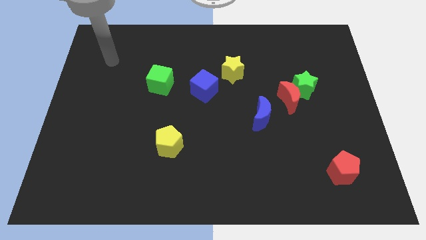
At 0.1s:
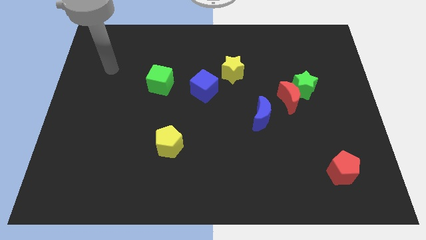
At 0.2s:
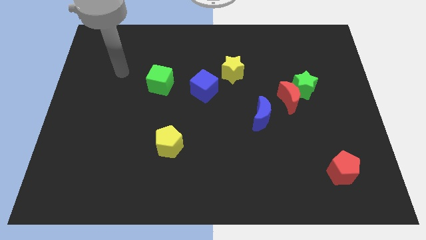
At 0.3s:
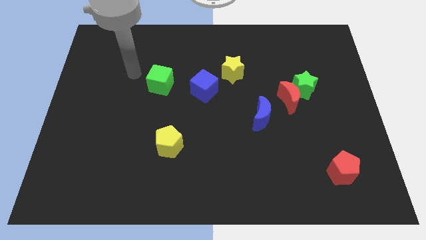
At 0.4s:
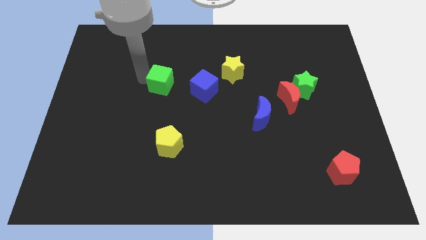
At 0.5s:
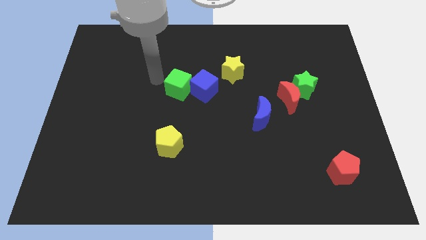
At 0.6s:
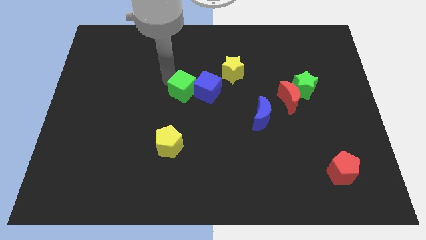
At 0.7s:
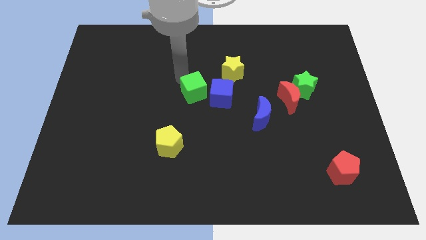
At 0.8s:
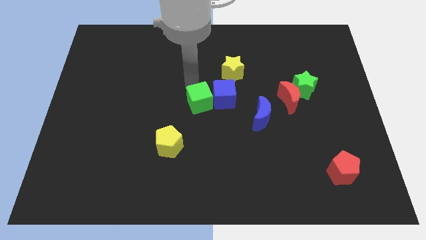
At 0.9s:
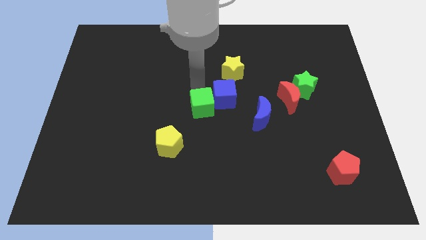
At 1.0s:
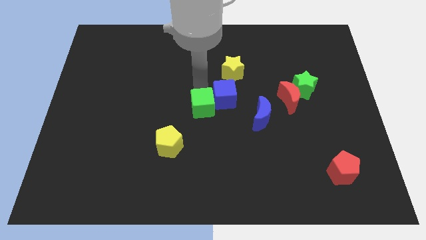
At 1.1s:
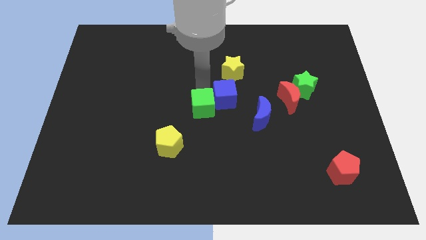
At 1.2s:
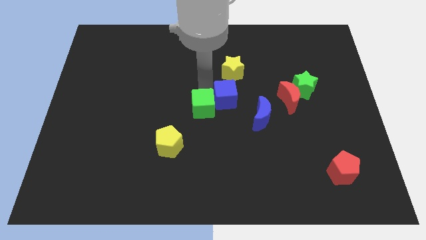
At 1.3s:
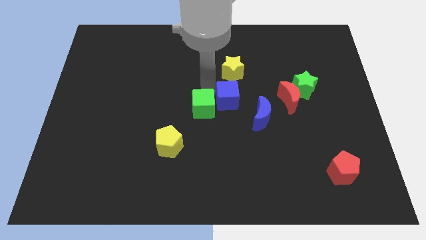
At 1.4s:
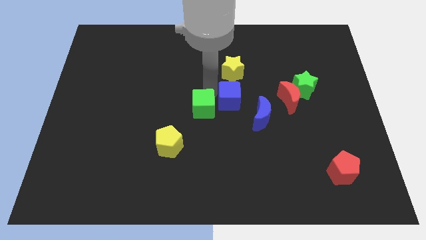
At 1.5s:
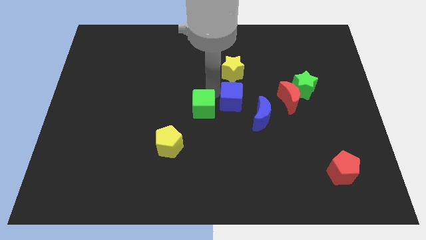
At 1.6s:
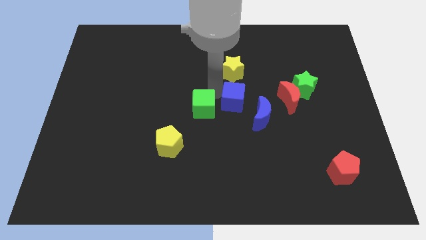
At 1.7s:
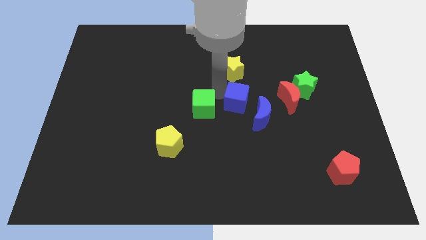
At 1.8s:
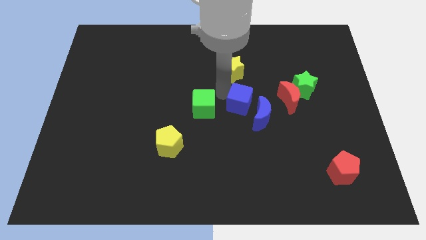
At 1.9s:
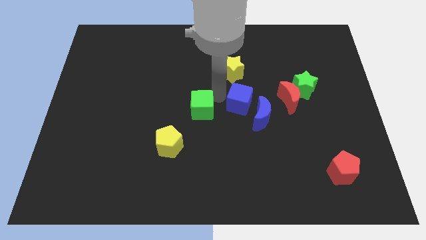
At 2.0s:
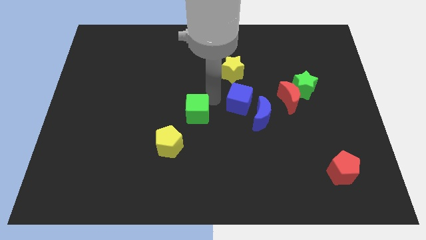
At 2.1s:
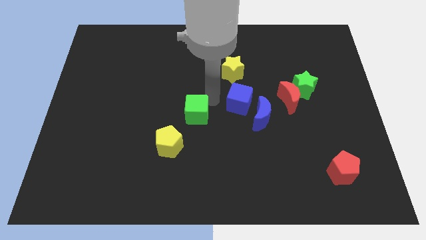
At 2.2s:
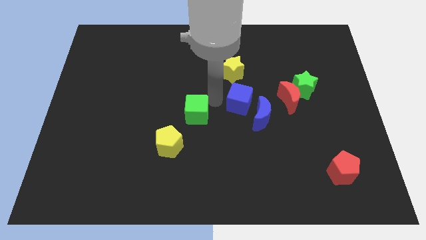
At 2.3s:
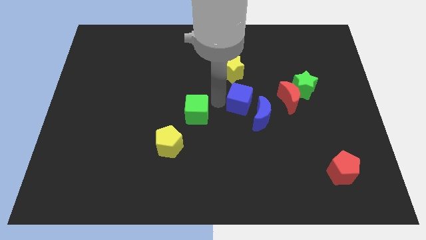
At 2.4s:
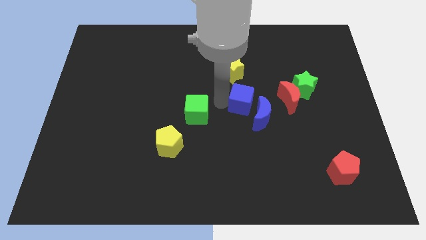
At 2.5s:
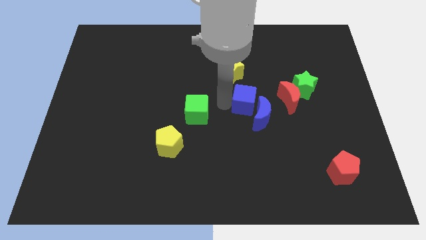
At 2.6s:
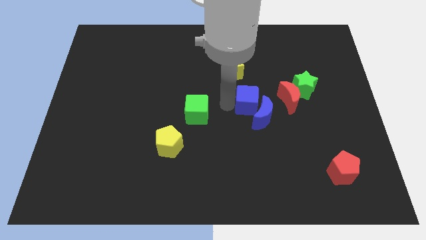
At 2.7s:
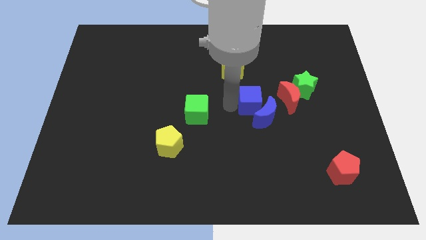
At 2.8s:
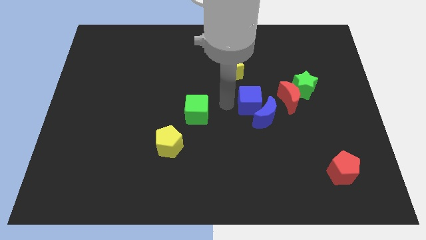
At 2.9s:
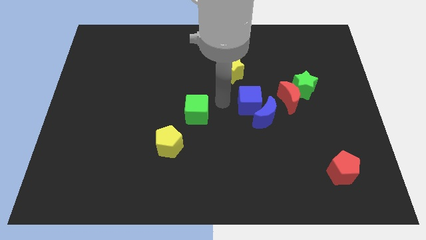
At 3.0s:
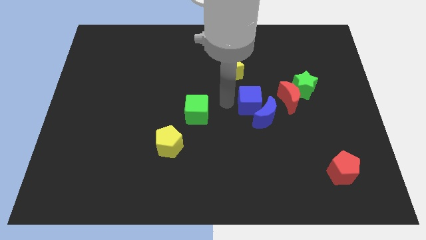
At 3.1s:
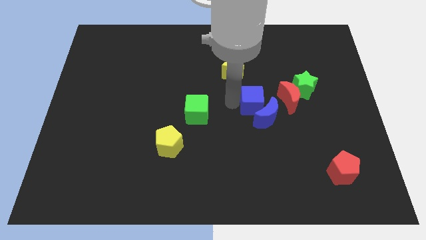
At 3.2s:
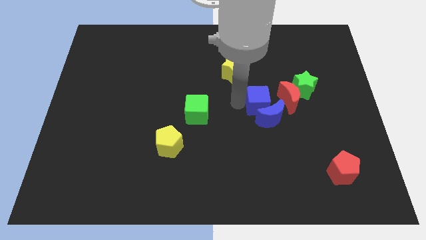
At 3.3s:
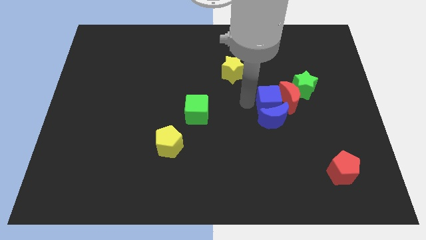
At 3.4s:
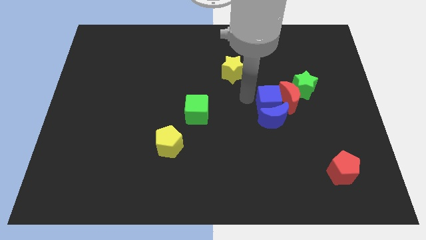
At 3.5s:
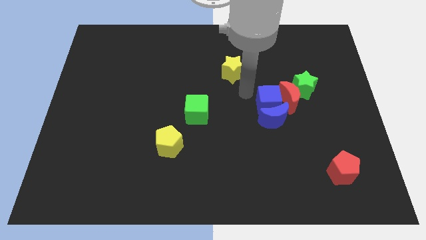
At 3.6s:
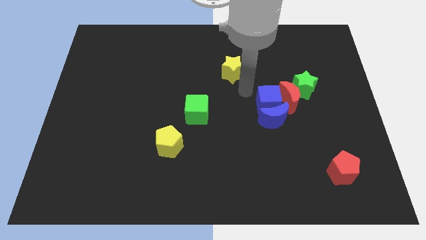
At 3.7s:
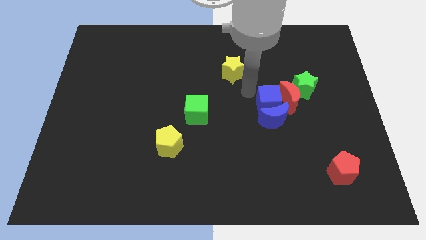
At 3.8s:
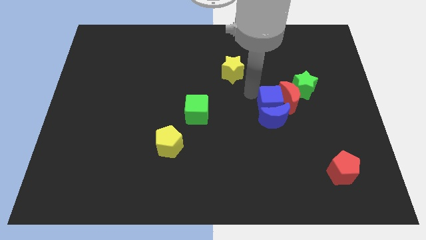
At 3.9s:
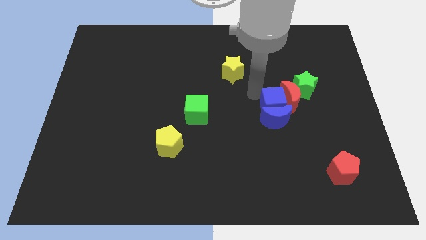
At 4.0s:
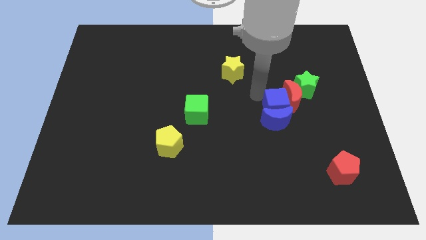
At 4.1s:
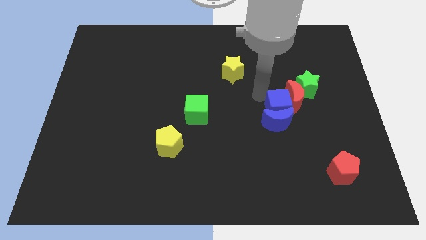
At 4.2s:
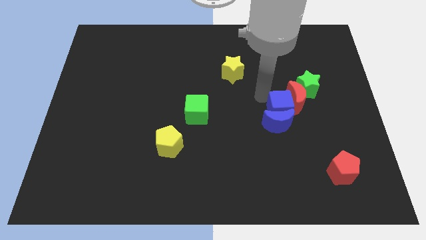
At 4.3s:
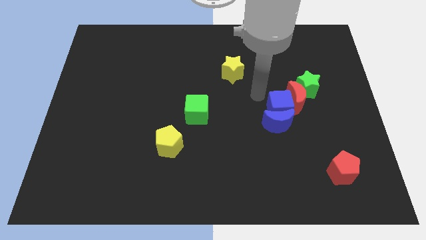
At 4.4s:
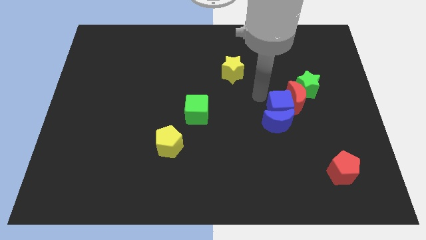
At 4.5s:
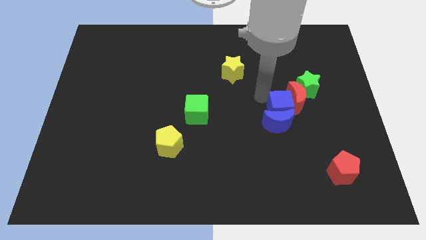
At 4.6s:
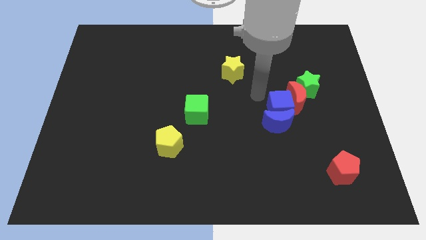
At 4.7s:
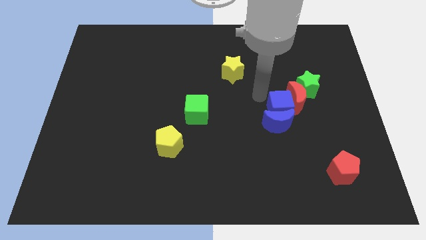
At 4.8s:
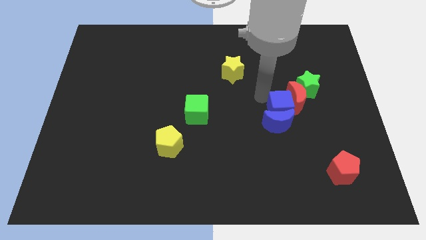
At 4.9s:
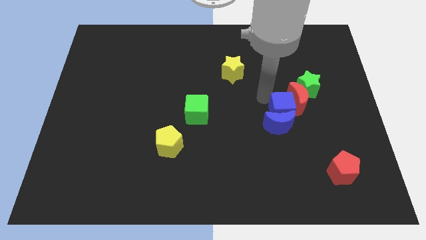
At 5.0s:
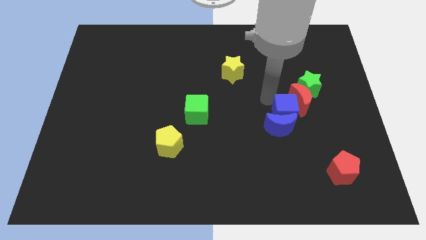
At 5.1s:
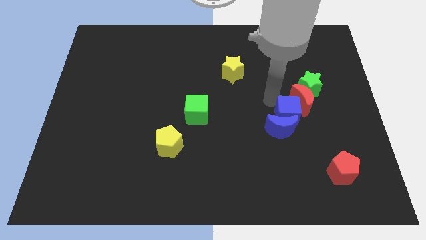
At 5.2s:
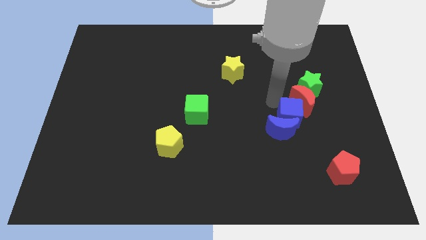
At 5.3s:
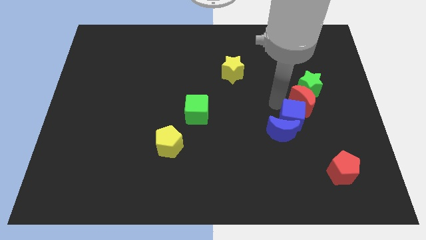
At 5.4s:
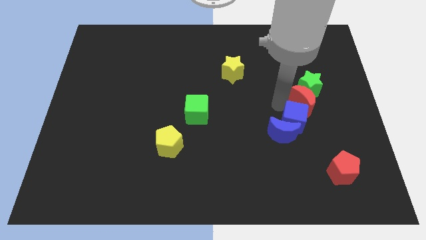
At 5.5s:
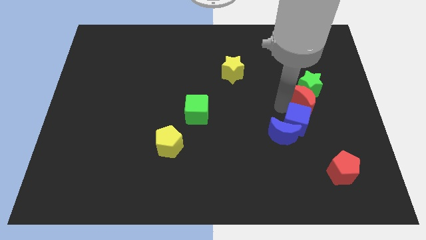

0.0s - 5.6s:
push the blue cube to the bottom side of the green star

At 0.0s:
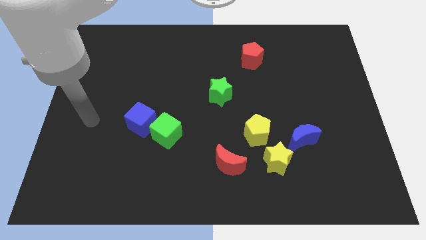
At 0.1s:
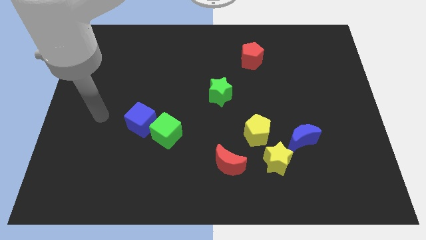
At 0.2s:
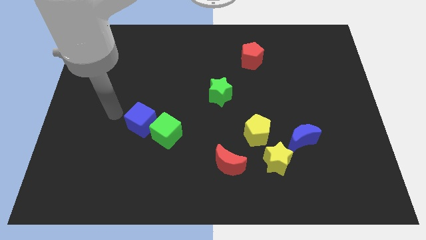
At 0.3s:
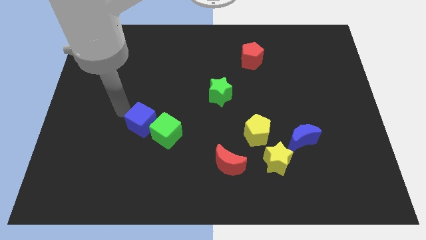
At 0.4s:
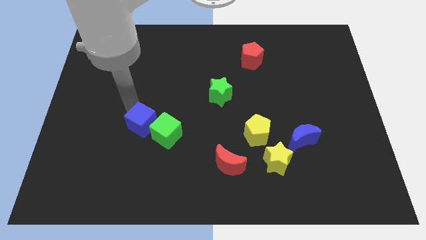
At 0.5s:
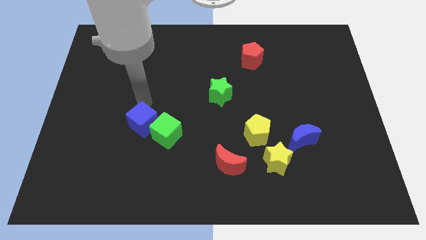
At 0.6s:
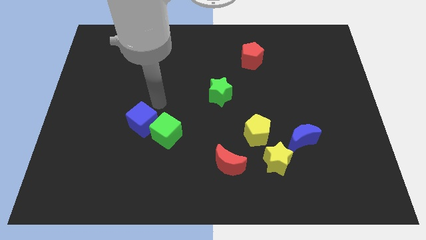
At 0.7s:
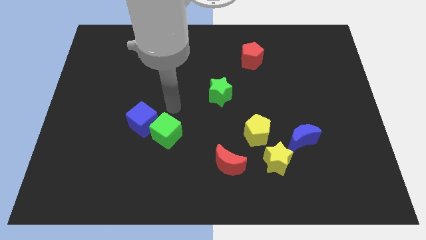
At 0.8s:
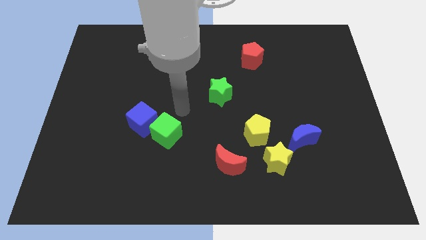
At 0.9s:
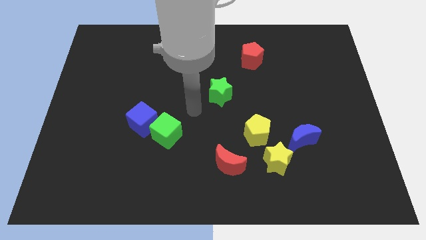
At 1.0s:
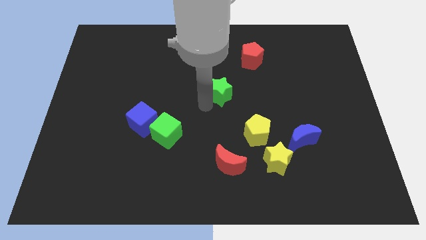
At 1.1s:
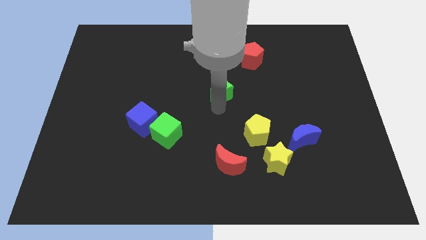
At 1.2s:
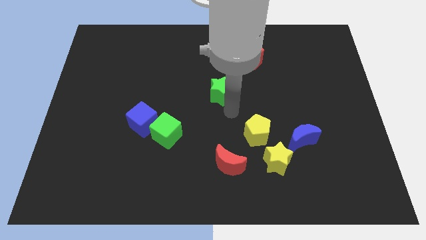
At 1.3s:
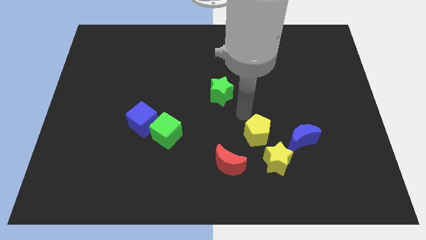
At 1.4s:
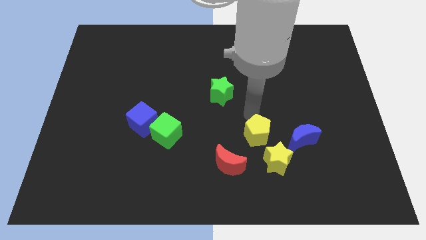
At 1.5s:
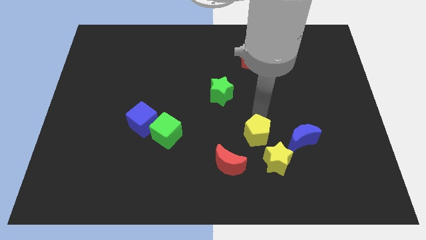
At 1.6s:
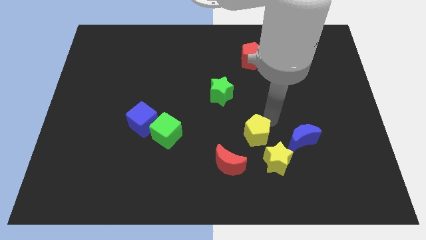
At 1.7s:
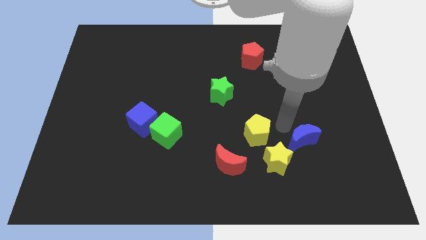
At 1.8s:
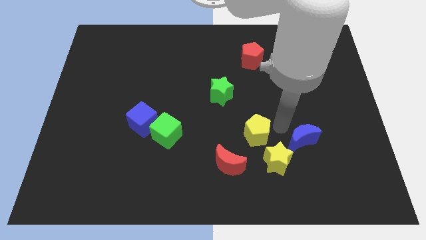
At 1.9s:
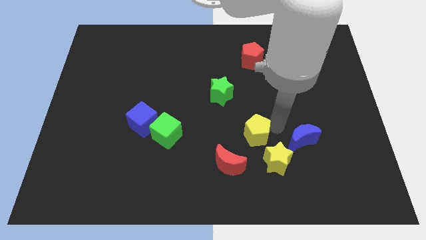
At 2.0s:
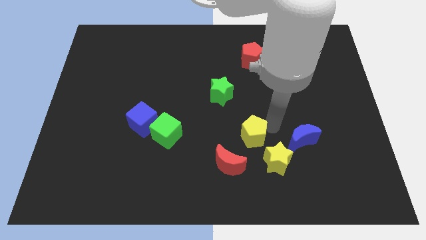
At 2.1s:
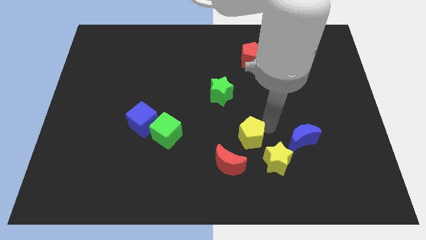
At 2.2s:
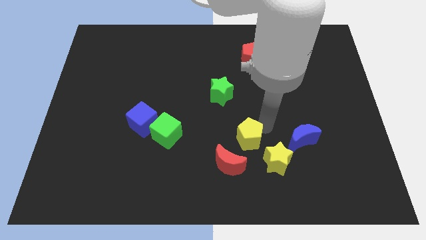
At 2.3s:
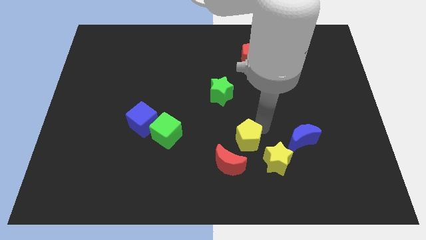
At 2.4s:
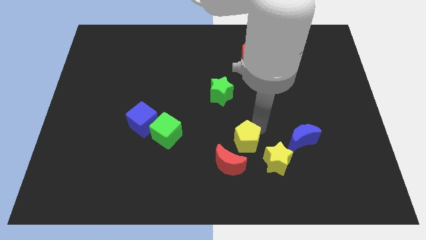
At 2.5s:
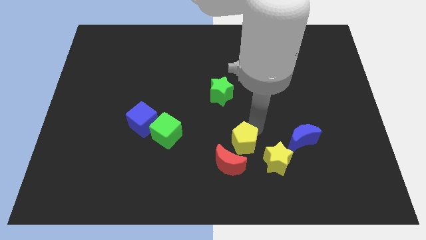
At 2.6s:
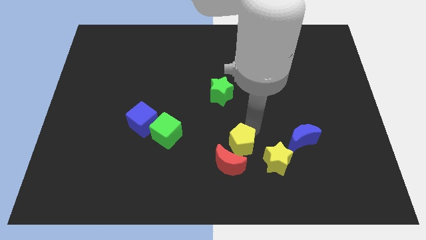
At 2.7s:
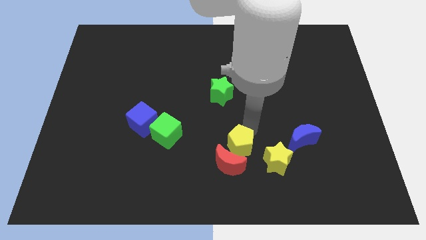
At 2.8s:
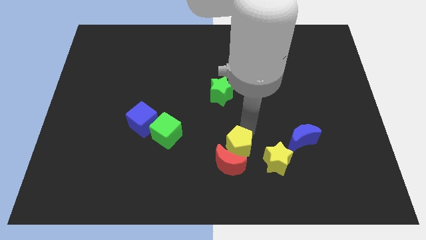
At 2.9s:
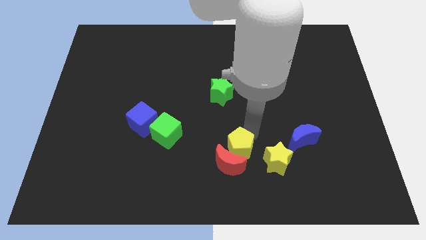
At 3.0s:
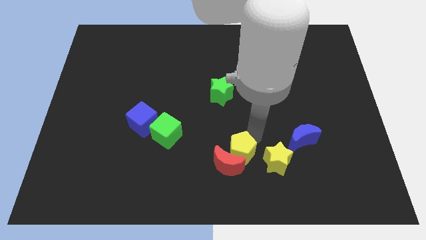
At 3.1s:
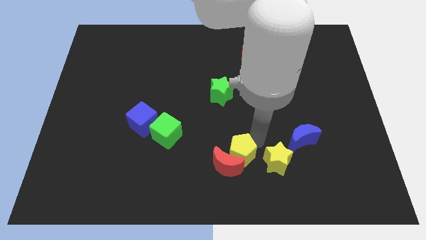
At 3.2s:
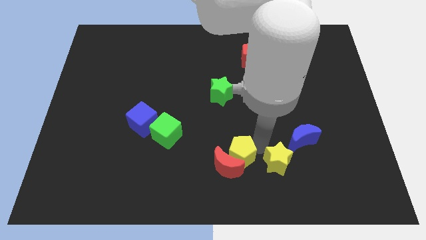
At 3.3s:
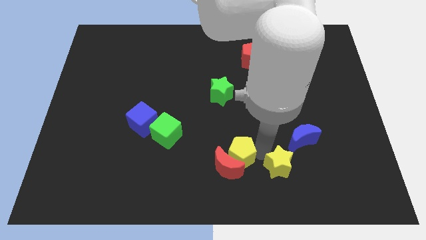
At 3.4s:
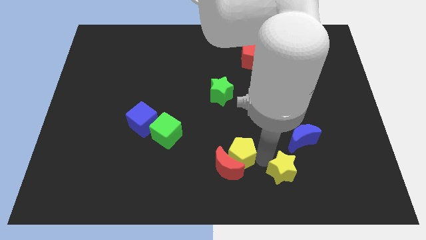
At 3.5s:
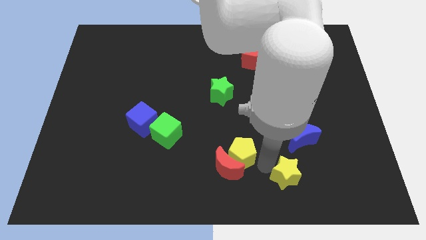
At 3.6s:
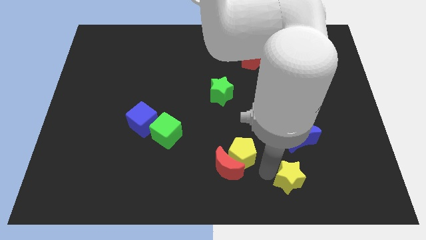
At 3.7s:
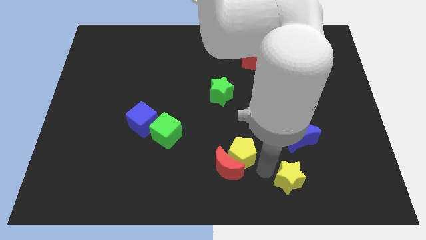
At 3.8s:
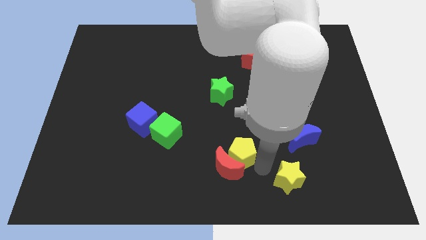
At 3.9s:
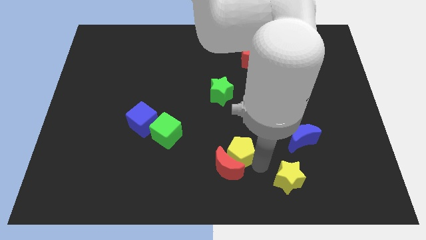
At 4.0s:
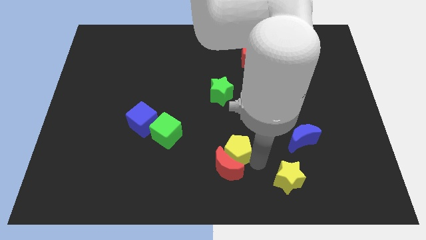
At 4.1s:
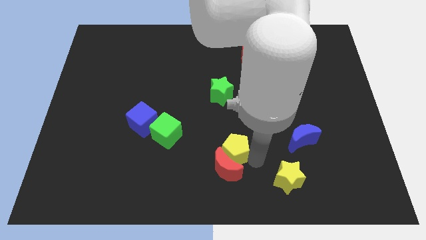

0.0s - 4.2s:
move the yellow pentagon to the top left of the red moon
